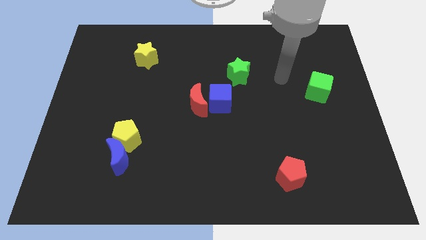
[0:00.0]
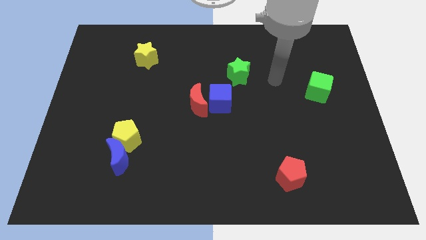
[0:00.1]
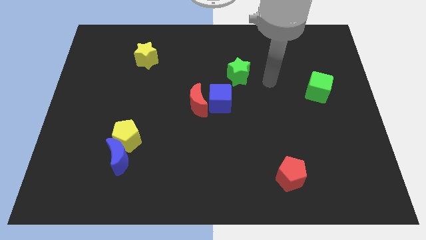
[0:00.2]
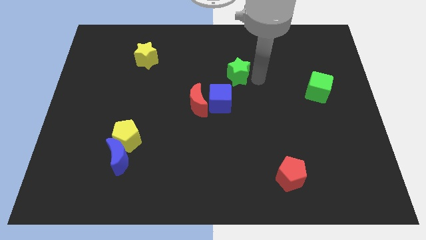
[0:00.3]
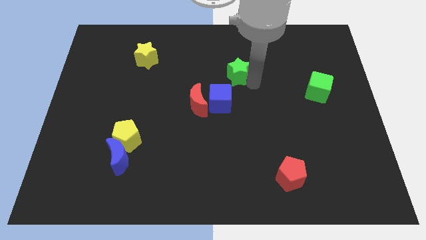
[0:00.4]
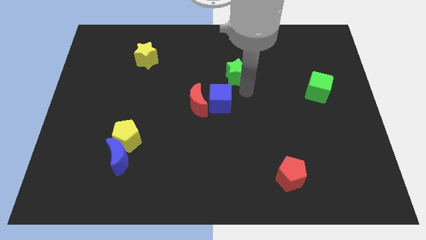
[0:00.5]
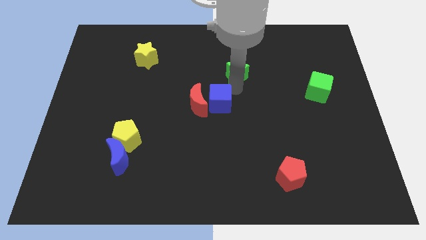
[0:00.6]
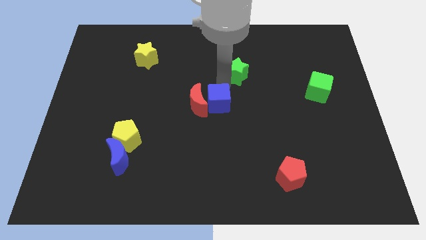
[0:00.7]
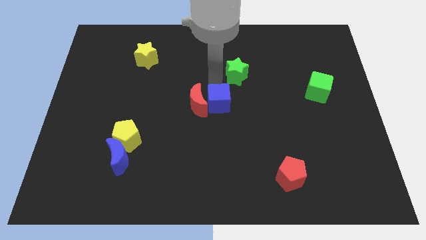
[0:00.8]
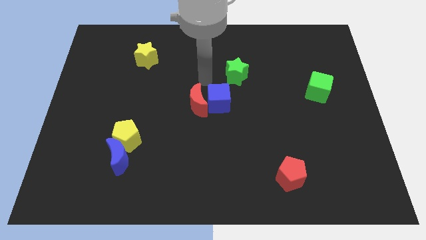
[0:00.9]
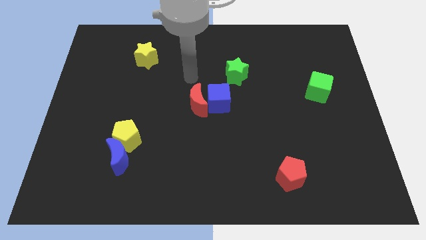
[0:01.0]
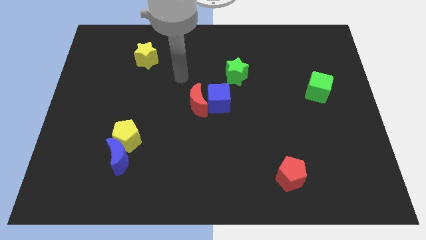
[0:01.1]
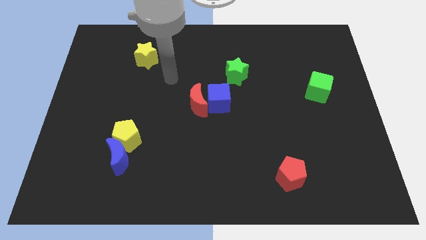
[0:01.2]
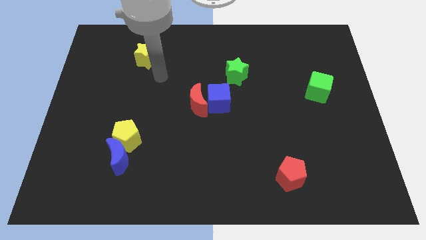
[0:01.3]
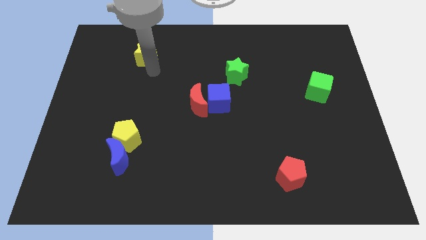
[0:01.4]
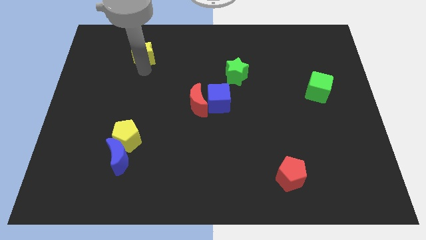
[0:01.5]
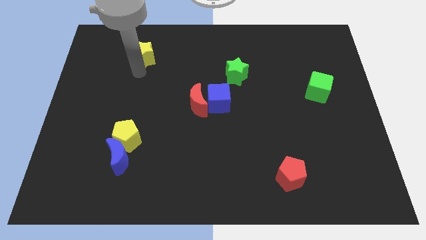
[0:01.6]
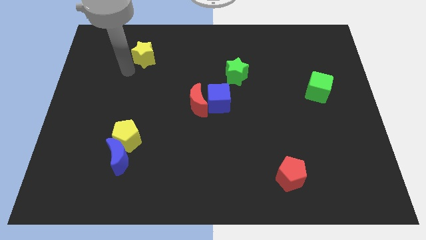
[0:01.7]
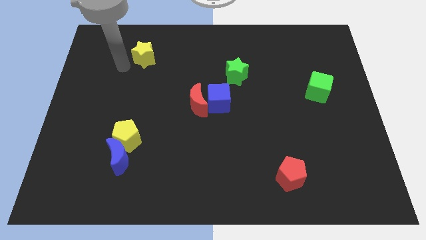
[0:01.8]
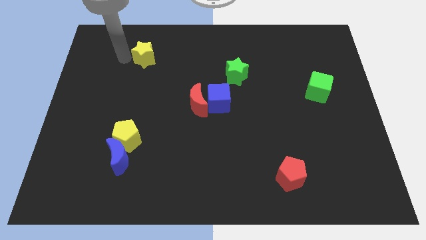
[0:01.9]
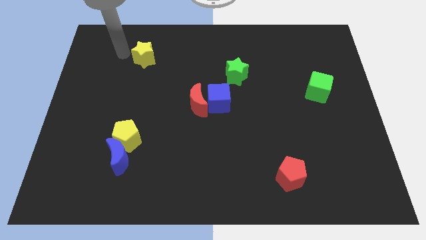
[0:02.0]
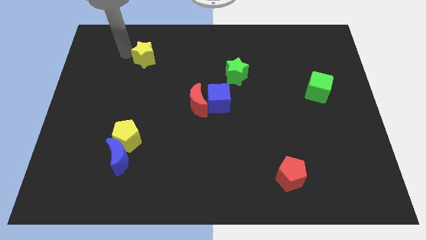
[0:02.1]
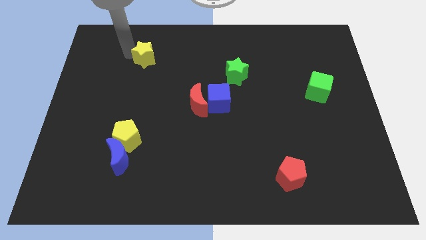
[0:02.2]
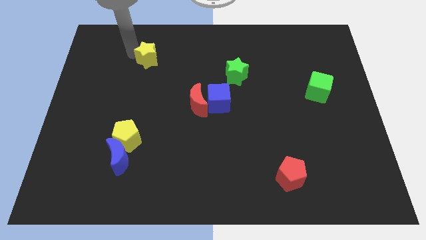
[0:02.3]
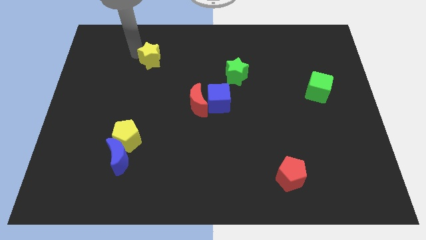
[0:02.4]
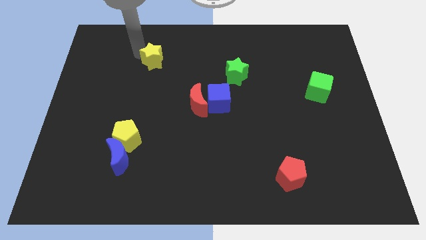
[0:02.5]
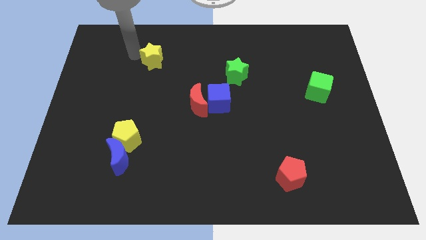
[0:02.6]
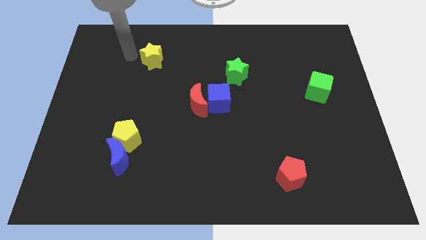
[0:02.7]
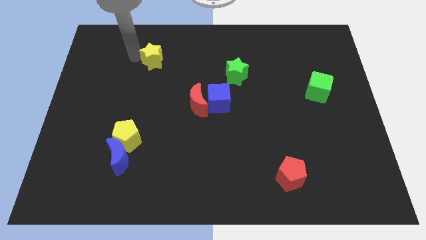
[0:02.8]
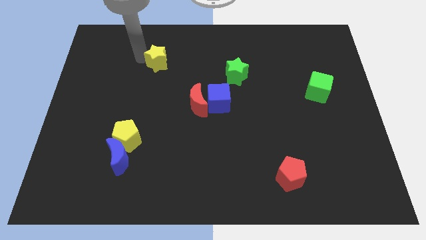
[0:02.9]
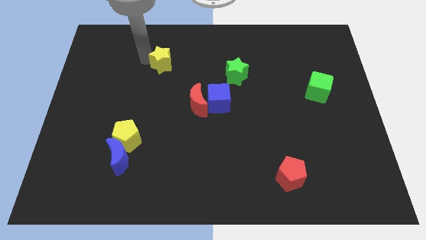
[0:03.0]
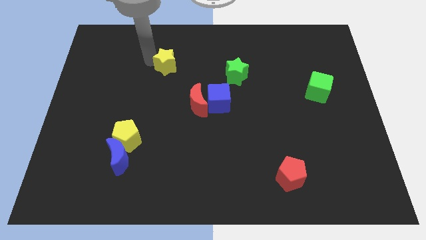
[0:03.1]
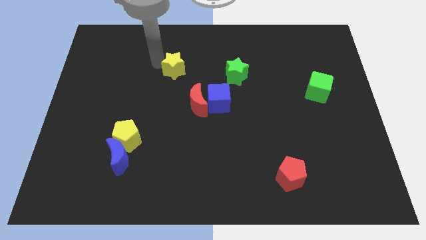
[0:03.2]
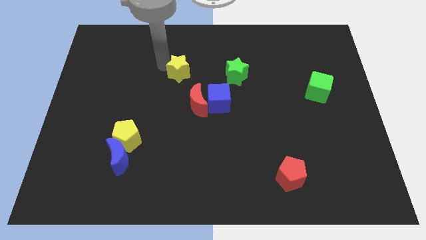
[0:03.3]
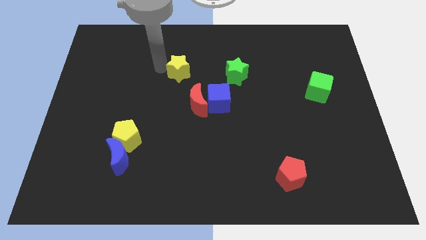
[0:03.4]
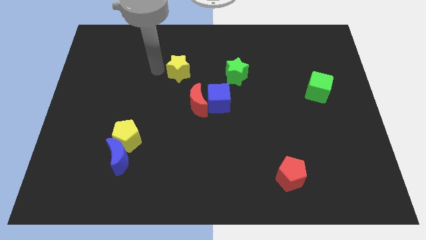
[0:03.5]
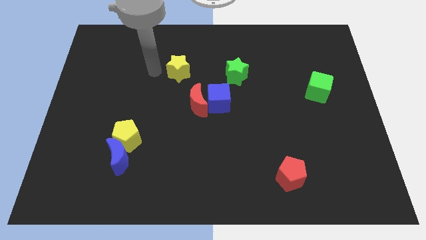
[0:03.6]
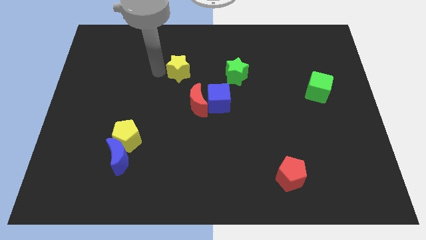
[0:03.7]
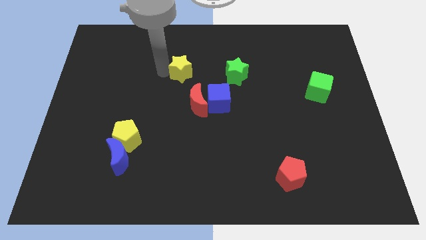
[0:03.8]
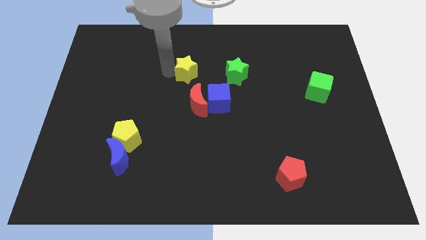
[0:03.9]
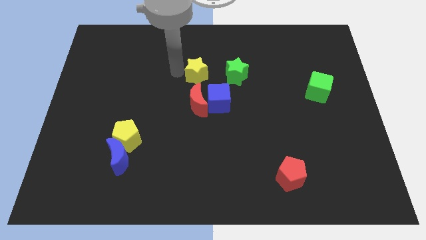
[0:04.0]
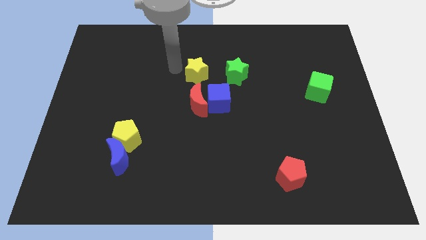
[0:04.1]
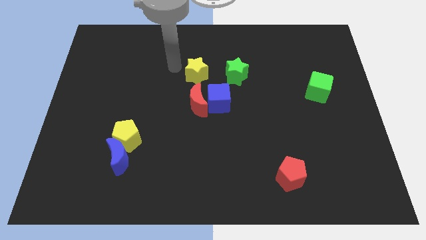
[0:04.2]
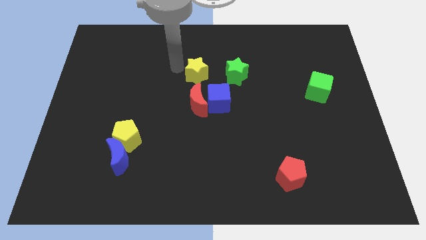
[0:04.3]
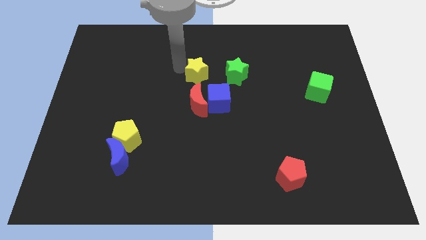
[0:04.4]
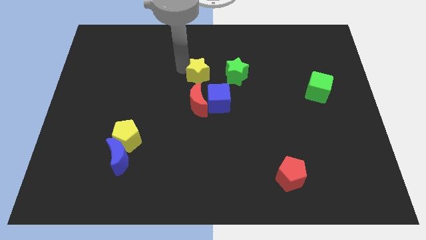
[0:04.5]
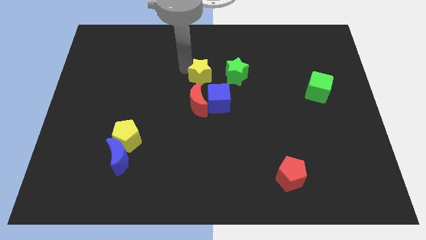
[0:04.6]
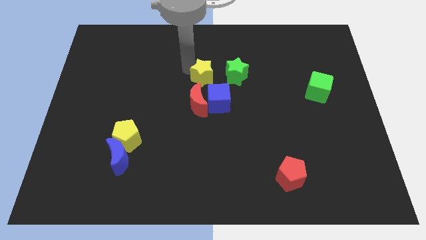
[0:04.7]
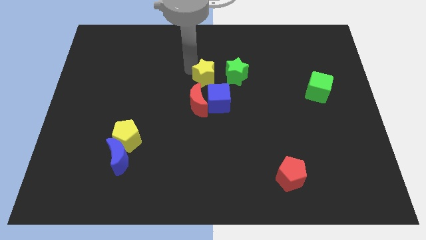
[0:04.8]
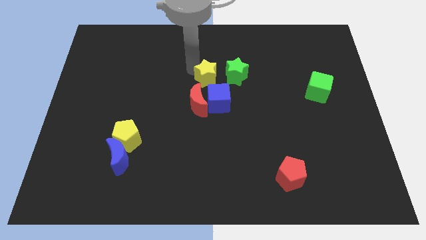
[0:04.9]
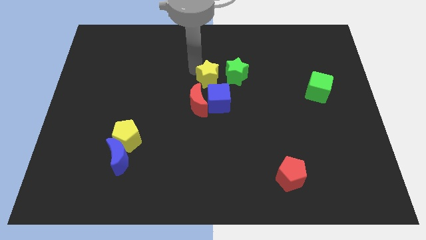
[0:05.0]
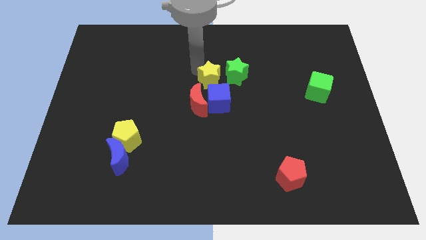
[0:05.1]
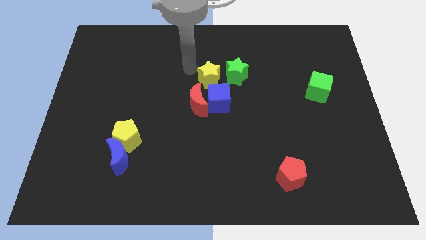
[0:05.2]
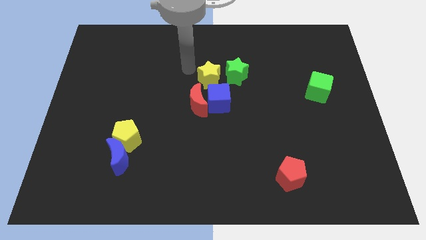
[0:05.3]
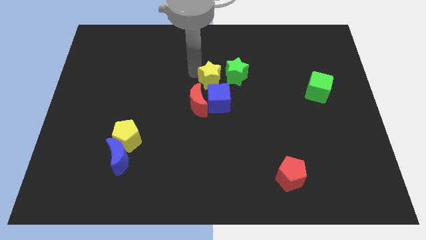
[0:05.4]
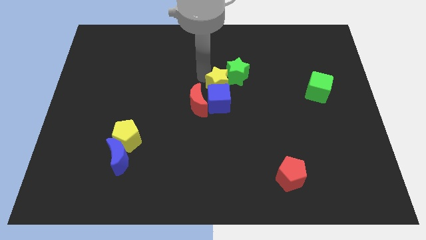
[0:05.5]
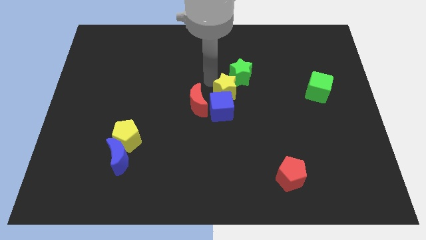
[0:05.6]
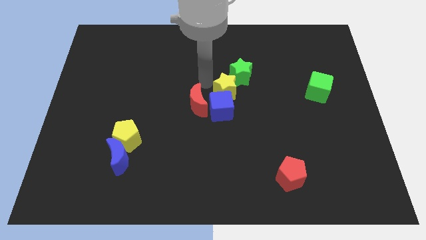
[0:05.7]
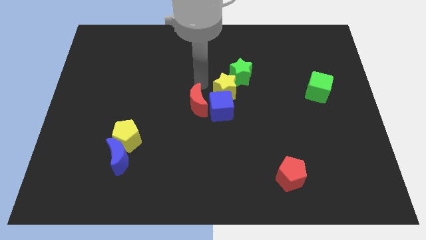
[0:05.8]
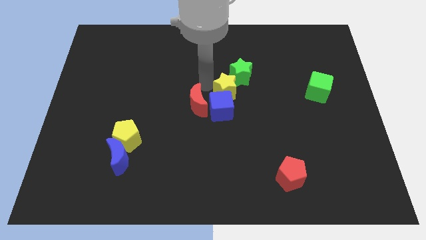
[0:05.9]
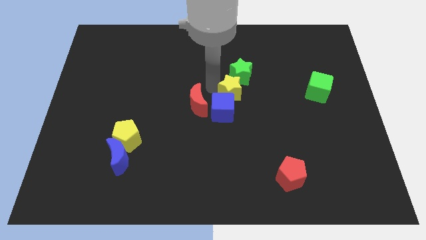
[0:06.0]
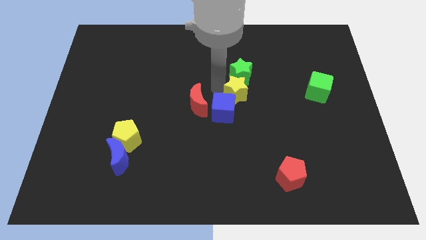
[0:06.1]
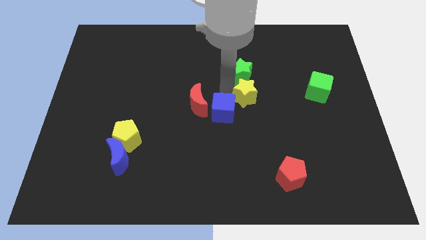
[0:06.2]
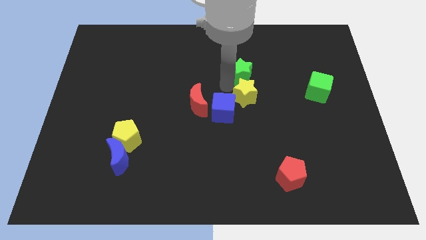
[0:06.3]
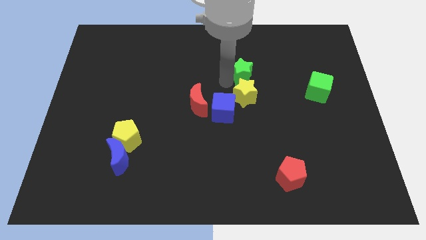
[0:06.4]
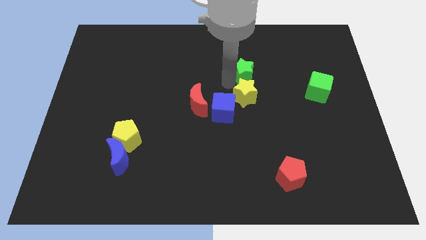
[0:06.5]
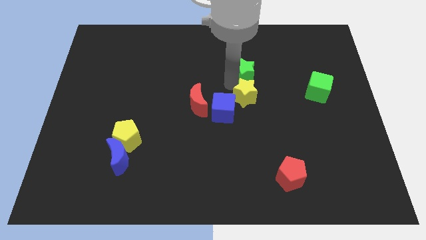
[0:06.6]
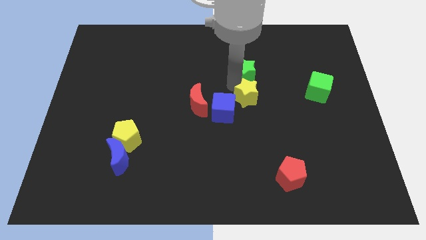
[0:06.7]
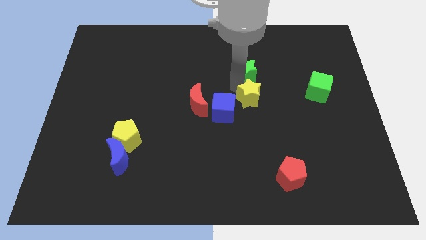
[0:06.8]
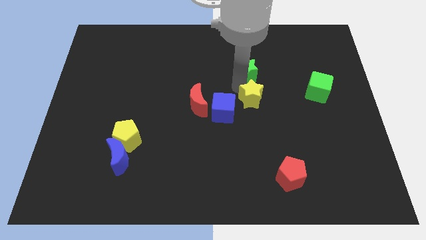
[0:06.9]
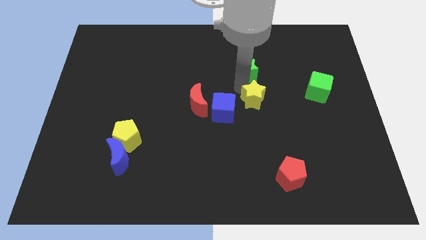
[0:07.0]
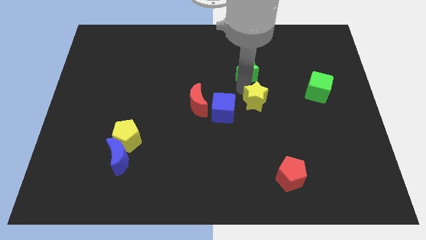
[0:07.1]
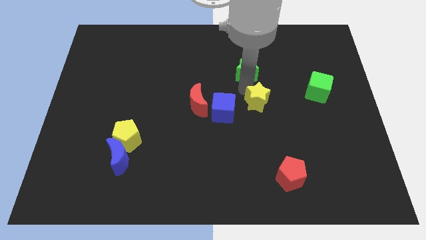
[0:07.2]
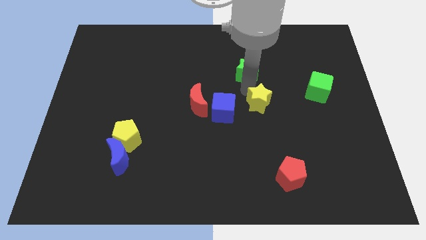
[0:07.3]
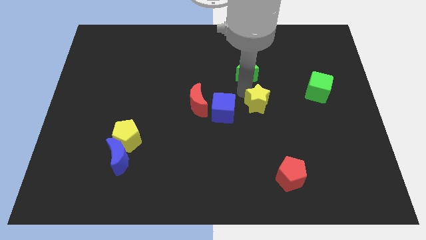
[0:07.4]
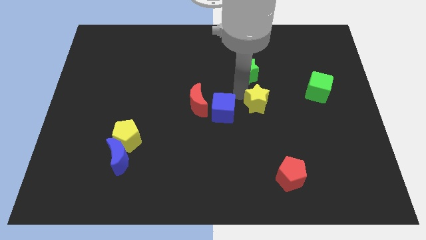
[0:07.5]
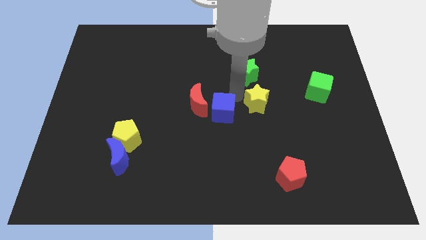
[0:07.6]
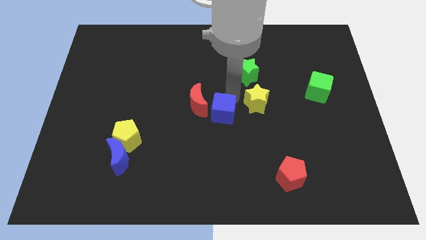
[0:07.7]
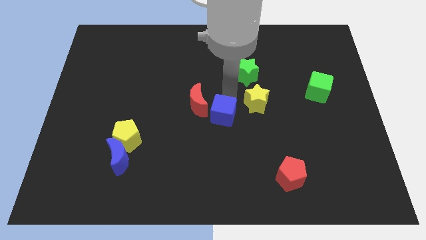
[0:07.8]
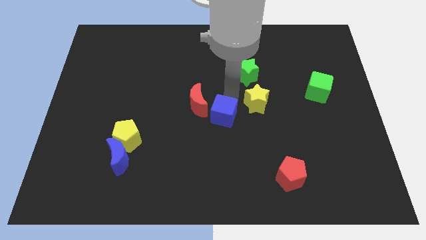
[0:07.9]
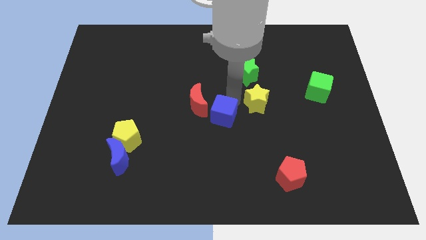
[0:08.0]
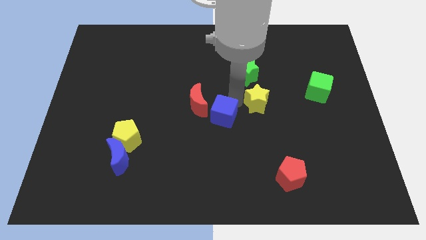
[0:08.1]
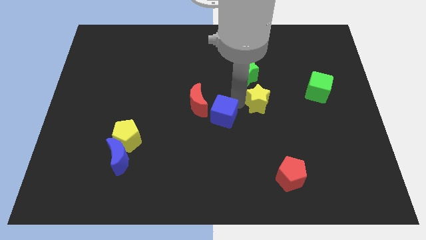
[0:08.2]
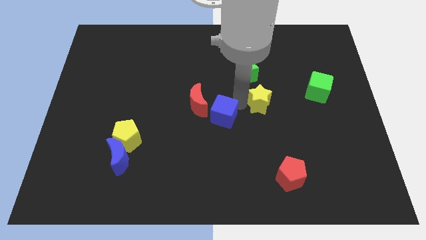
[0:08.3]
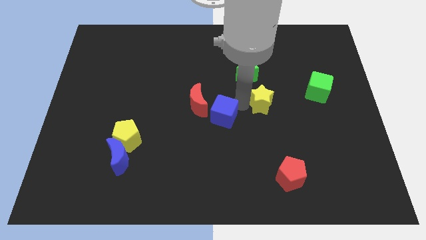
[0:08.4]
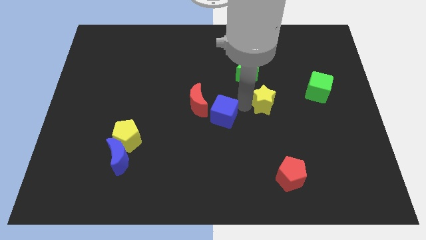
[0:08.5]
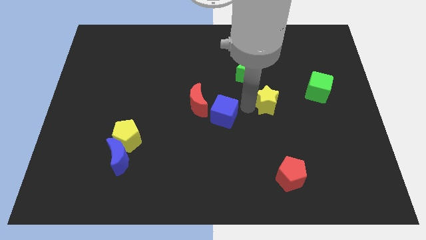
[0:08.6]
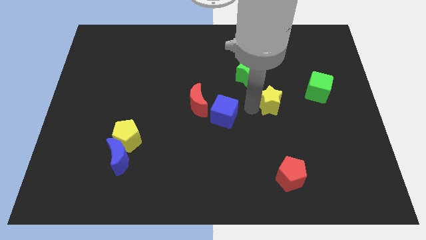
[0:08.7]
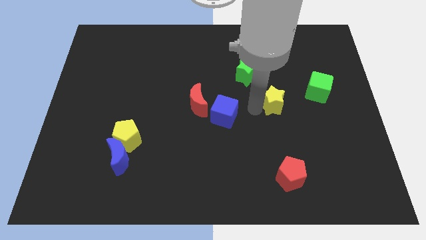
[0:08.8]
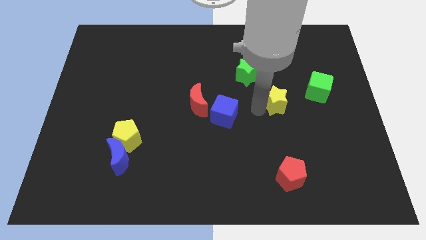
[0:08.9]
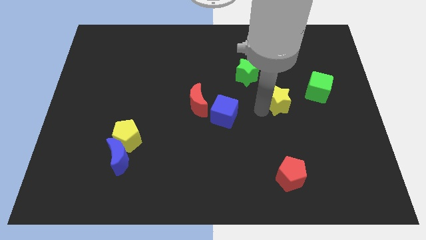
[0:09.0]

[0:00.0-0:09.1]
push the yellow star diagonally down and to the left of the green cube
